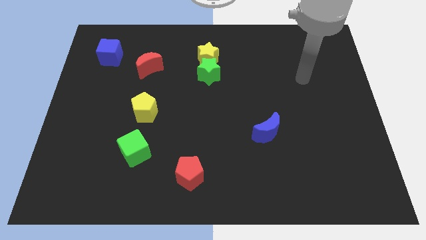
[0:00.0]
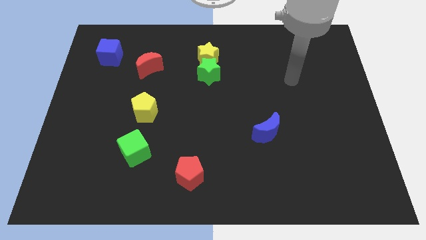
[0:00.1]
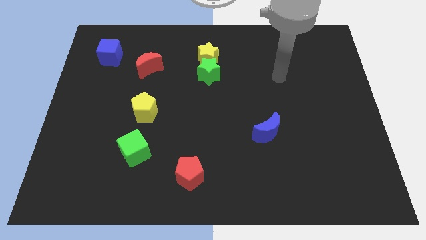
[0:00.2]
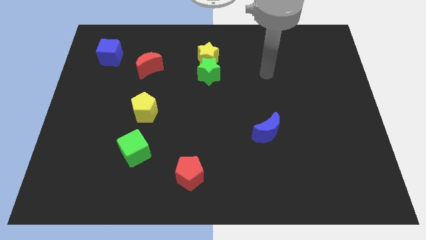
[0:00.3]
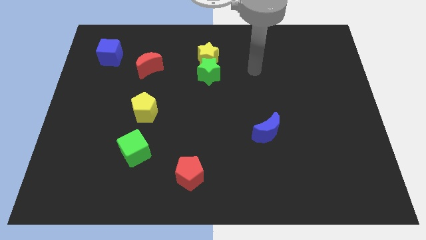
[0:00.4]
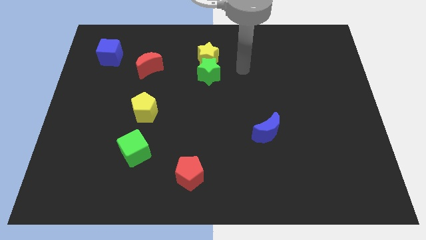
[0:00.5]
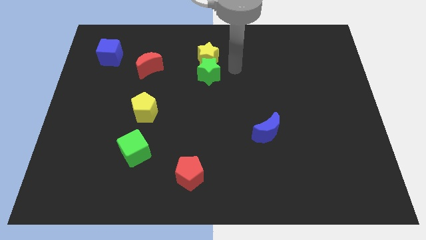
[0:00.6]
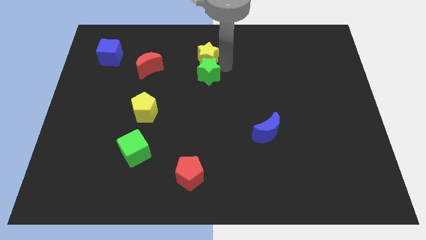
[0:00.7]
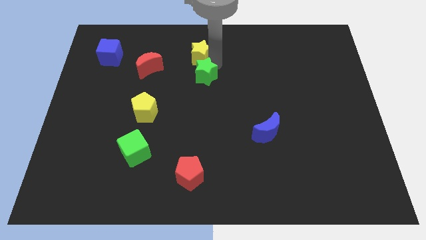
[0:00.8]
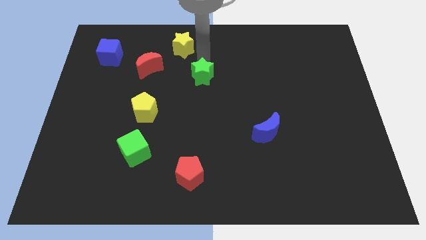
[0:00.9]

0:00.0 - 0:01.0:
move the green star away from the yellow star

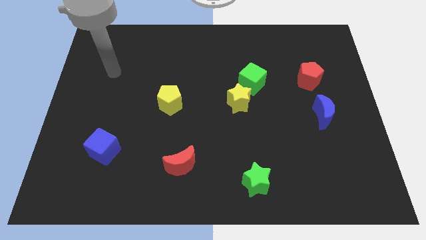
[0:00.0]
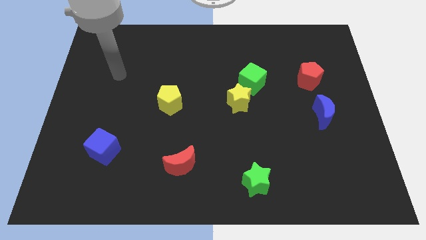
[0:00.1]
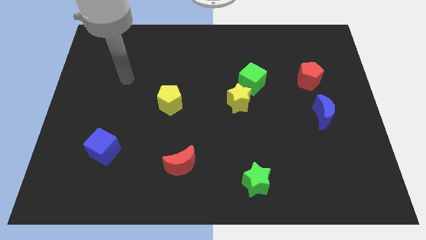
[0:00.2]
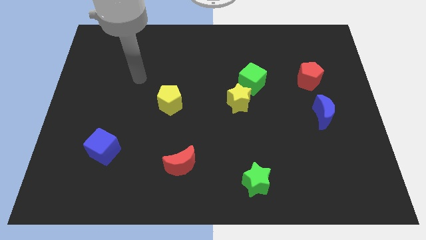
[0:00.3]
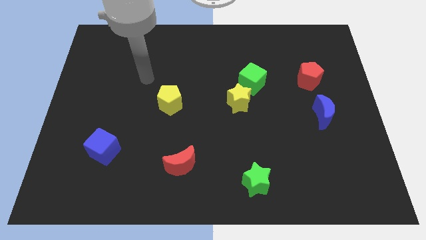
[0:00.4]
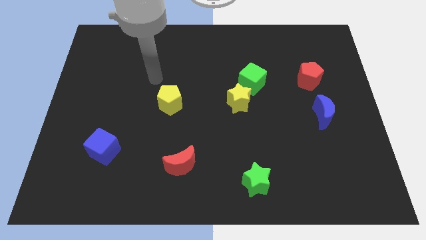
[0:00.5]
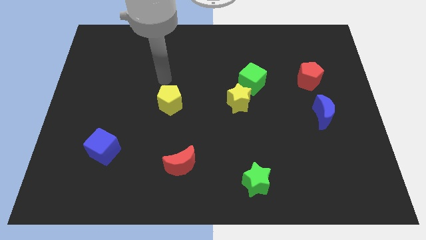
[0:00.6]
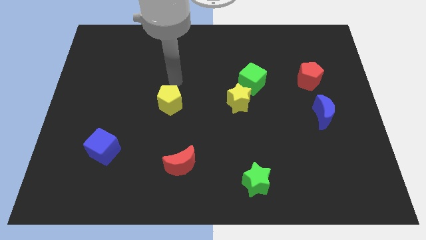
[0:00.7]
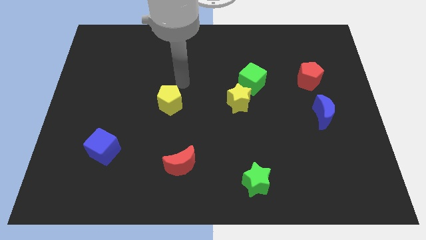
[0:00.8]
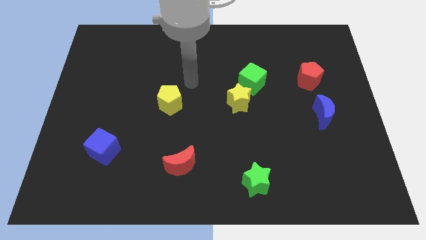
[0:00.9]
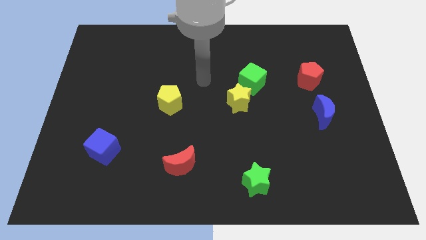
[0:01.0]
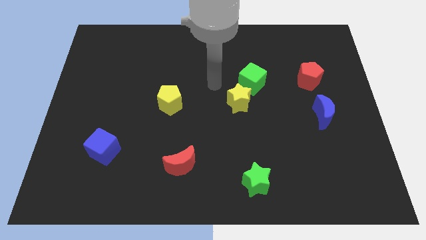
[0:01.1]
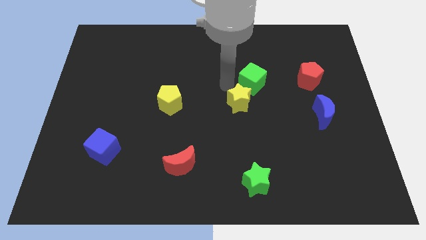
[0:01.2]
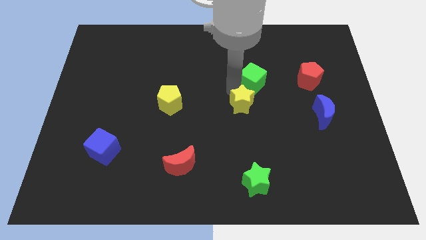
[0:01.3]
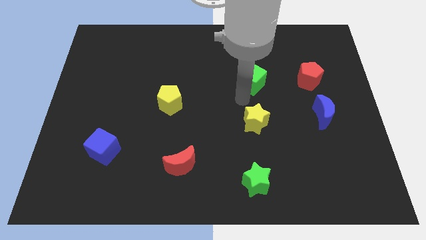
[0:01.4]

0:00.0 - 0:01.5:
move the green cube away from the yellow star

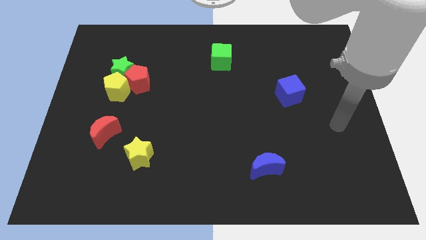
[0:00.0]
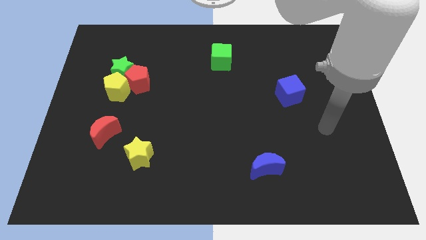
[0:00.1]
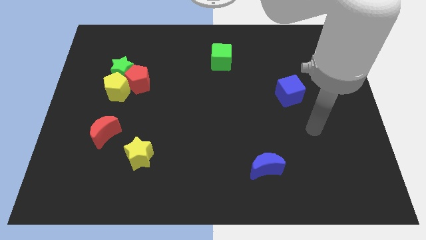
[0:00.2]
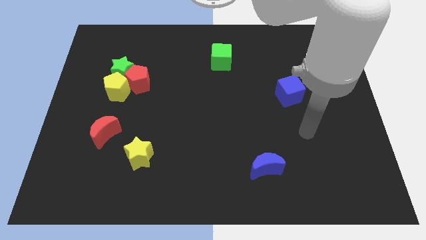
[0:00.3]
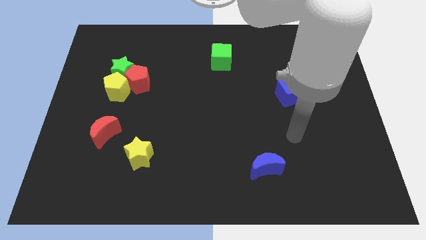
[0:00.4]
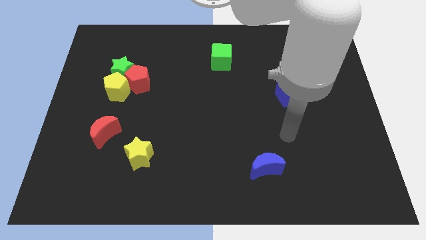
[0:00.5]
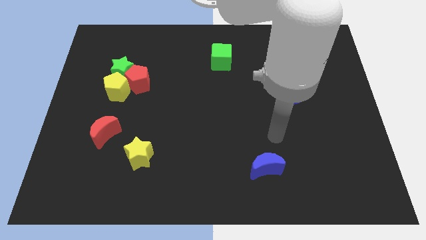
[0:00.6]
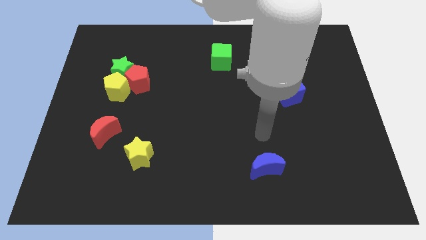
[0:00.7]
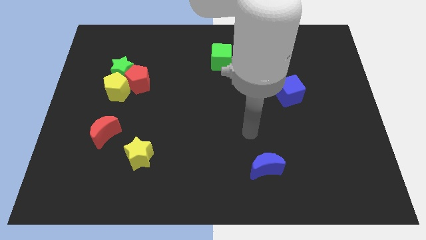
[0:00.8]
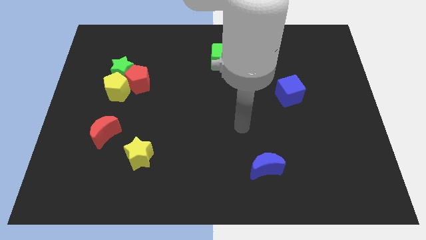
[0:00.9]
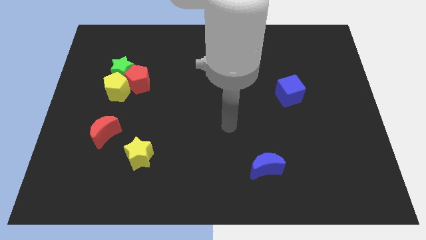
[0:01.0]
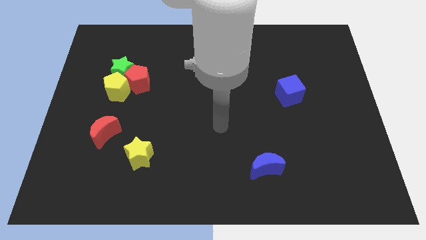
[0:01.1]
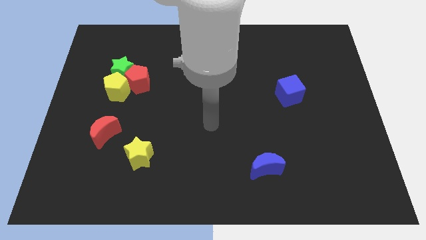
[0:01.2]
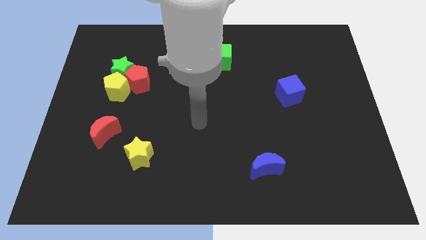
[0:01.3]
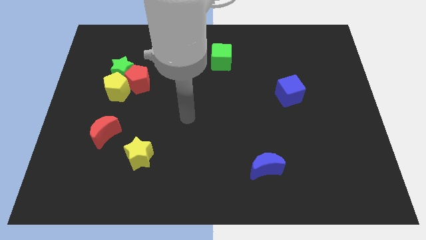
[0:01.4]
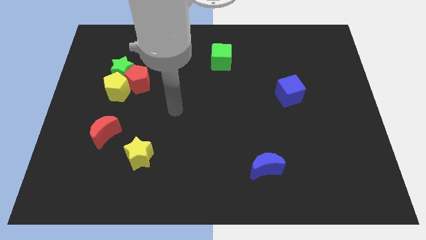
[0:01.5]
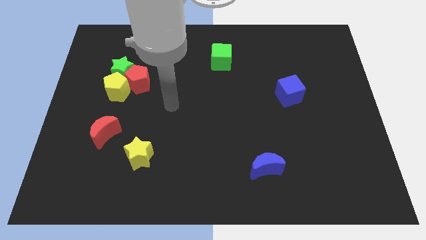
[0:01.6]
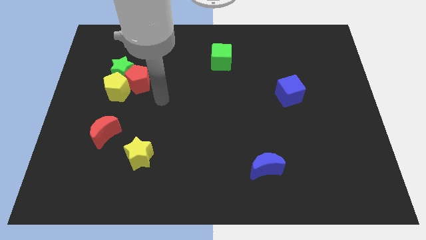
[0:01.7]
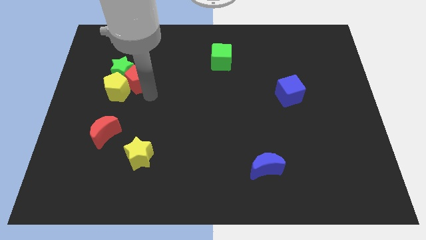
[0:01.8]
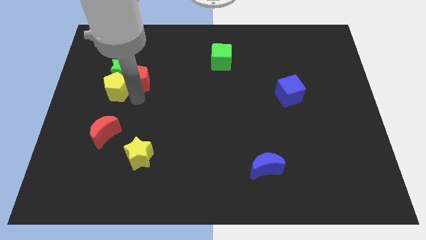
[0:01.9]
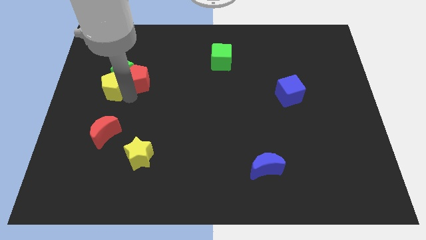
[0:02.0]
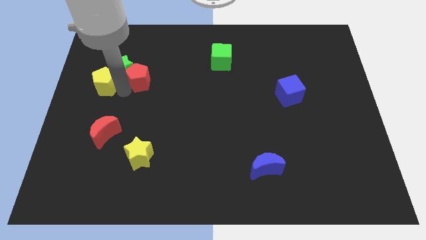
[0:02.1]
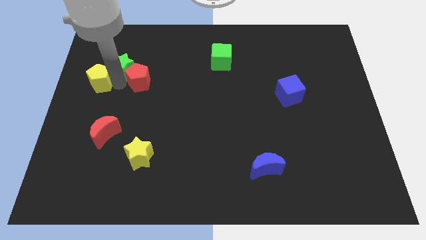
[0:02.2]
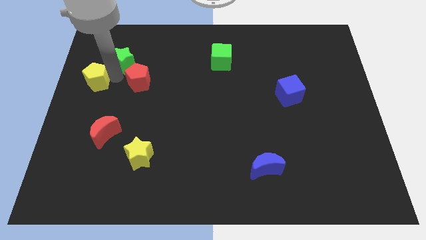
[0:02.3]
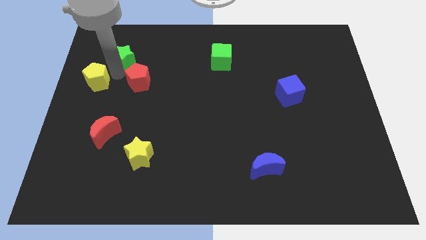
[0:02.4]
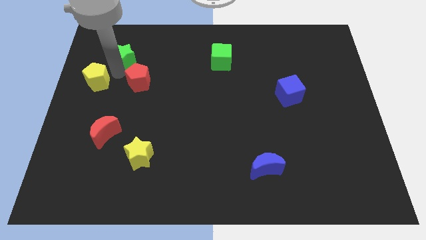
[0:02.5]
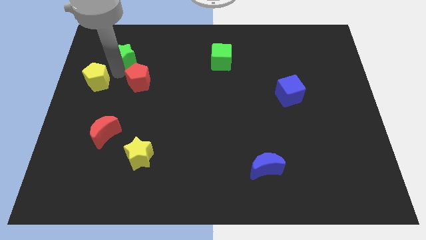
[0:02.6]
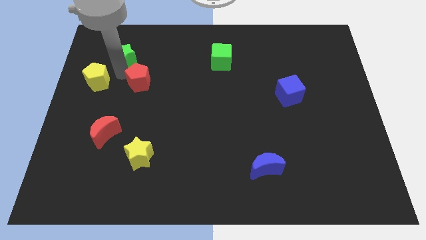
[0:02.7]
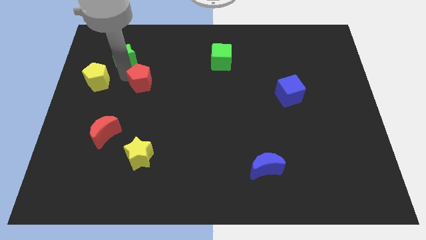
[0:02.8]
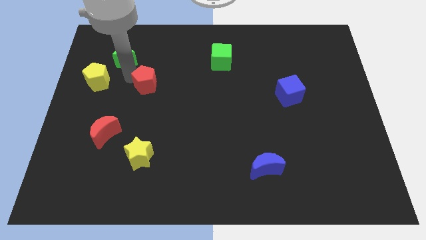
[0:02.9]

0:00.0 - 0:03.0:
separate the red pentagon from the green star and yellow pentagon

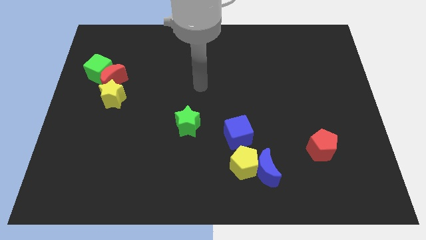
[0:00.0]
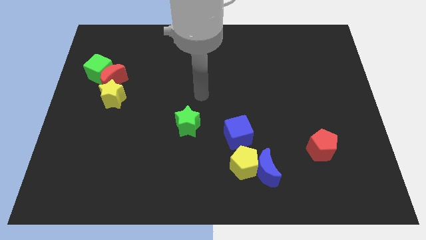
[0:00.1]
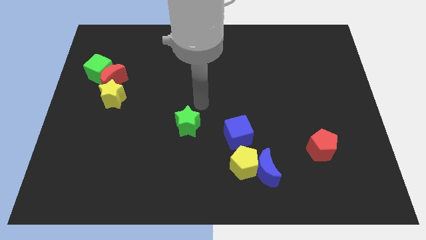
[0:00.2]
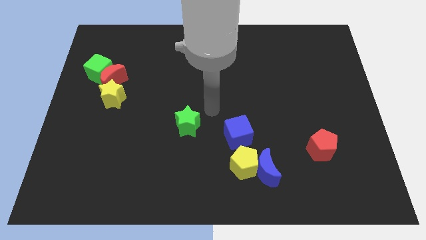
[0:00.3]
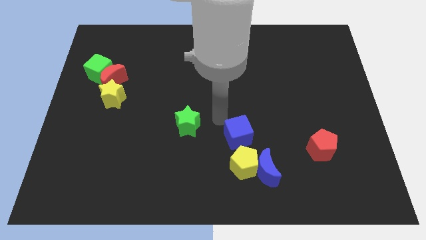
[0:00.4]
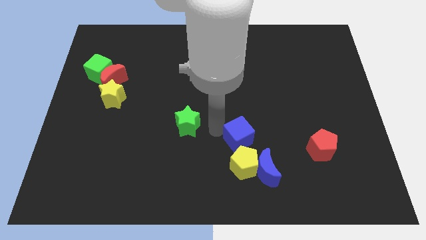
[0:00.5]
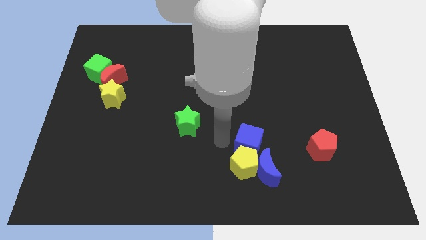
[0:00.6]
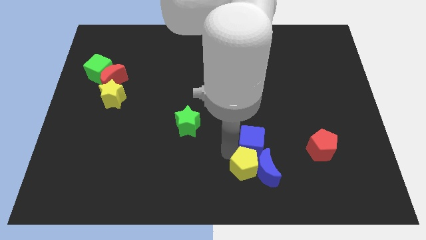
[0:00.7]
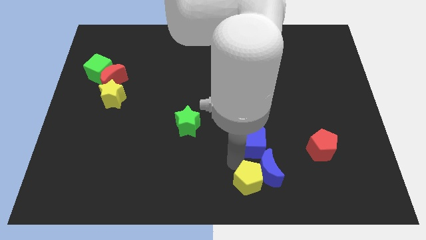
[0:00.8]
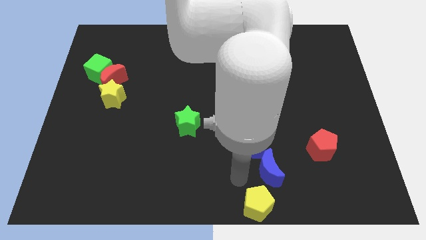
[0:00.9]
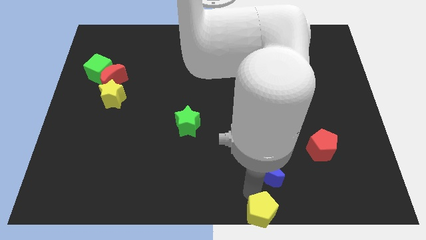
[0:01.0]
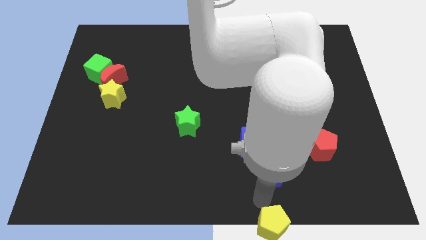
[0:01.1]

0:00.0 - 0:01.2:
separate the blue moon from the yellow pentagon

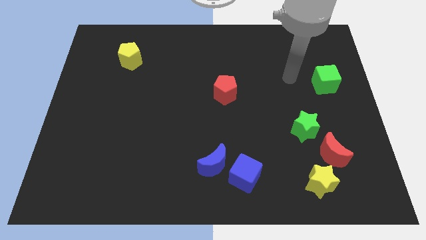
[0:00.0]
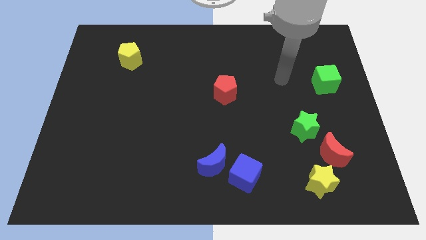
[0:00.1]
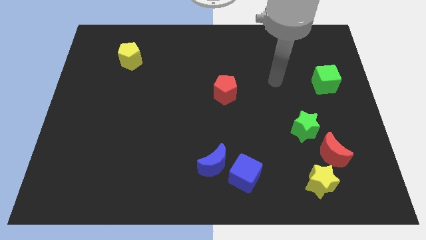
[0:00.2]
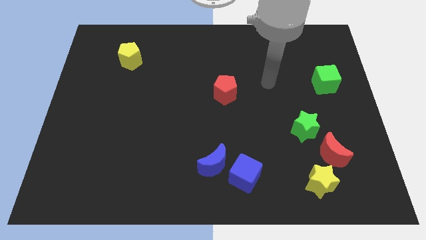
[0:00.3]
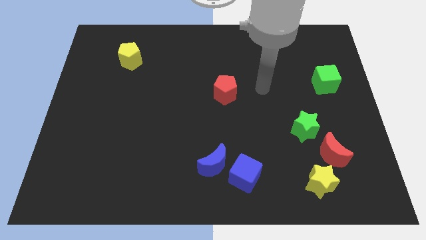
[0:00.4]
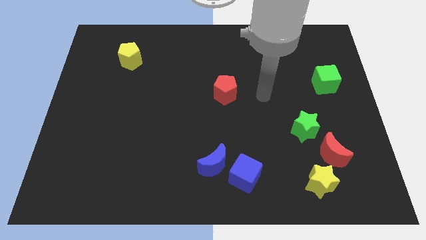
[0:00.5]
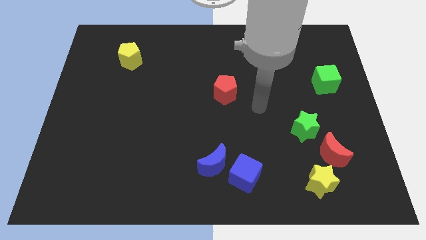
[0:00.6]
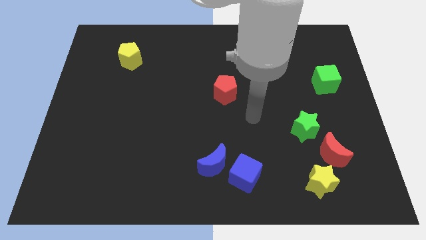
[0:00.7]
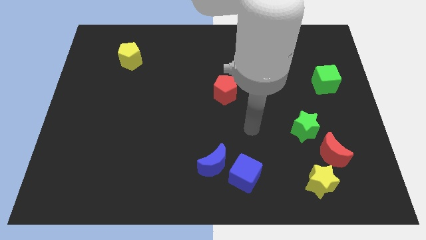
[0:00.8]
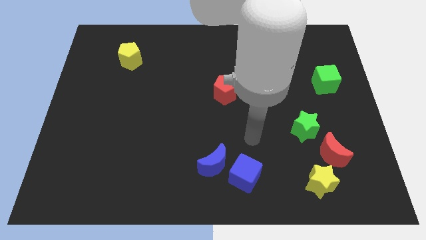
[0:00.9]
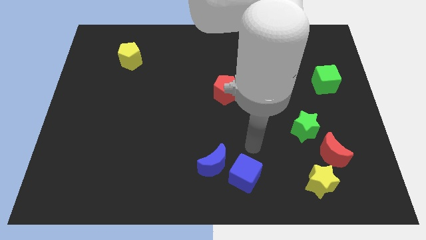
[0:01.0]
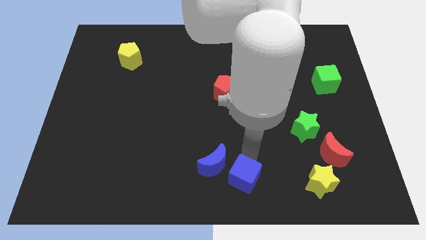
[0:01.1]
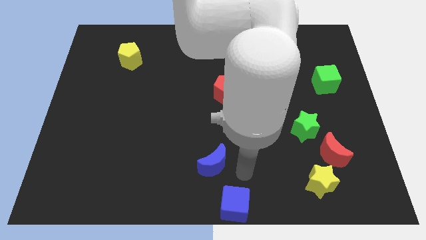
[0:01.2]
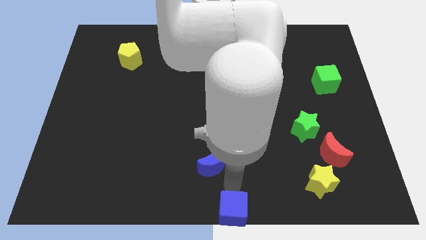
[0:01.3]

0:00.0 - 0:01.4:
separate the blue moon from the blue cube

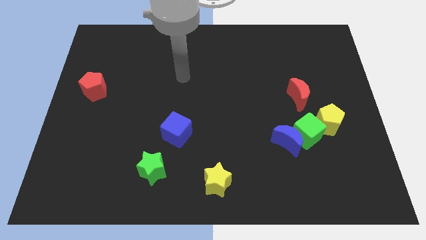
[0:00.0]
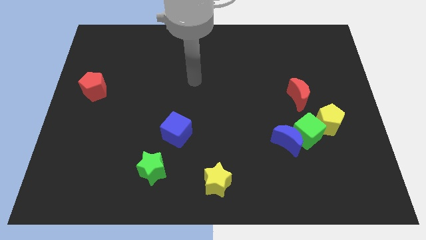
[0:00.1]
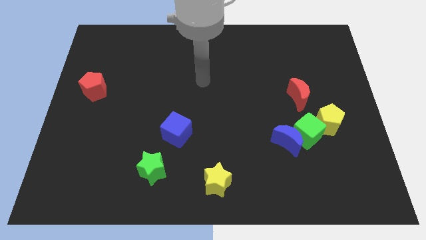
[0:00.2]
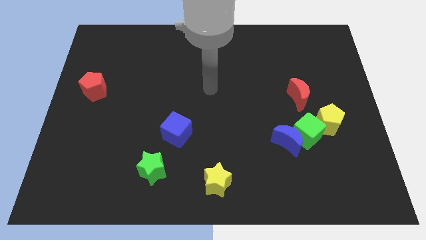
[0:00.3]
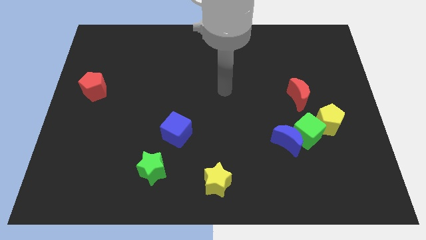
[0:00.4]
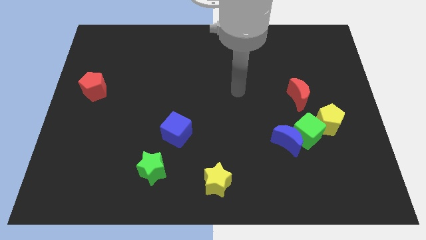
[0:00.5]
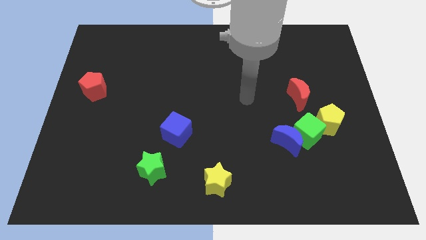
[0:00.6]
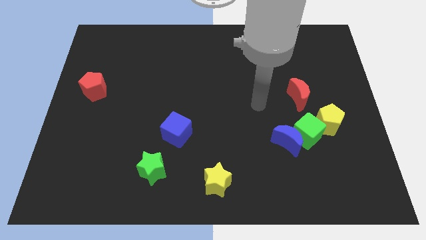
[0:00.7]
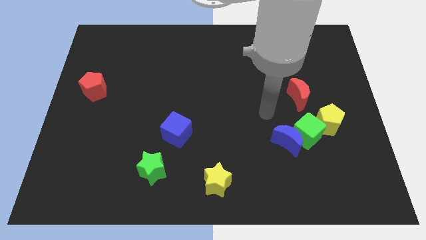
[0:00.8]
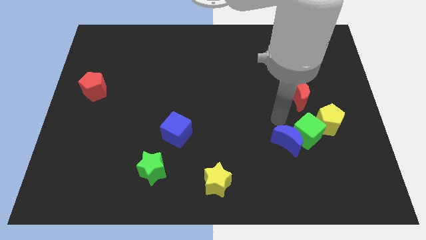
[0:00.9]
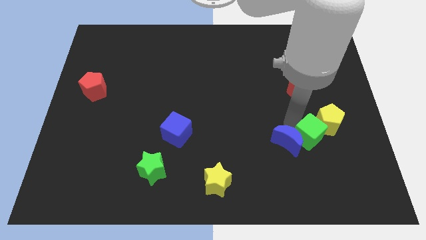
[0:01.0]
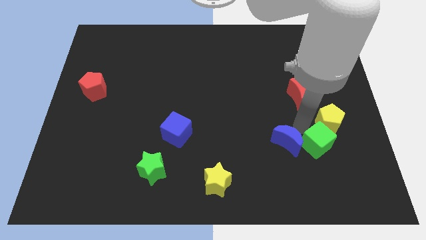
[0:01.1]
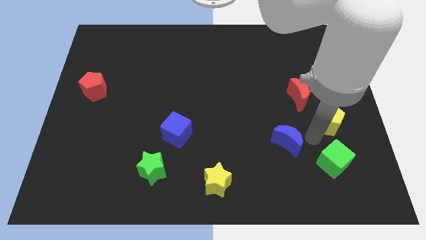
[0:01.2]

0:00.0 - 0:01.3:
separate the blue moon from the green cube
